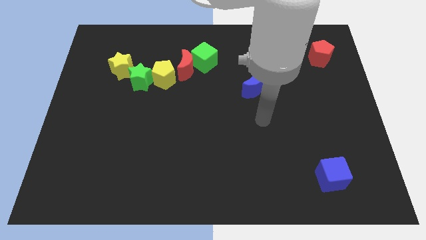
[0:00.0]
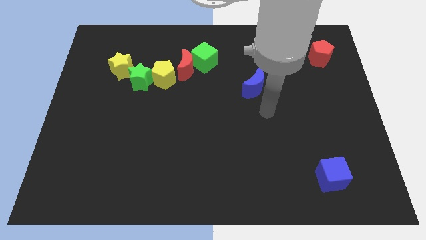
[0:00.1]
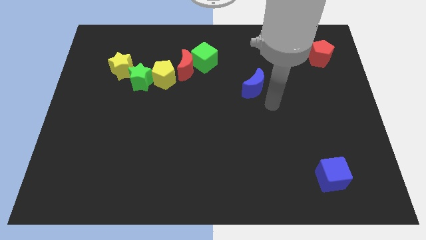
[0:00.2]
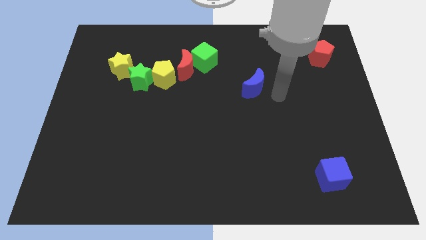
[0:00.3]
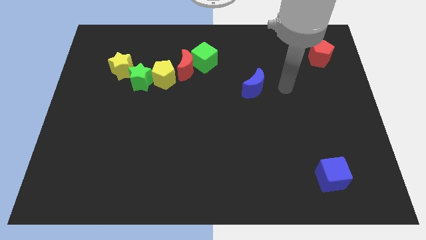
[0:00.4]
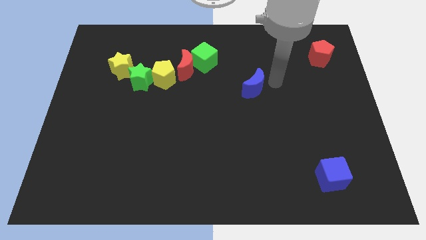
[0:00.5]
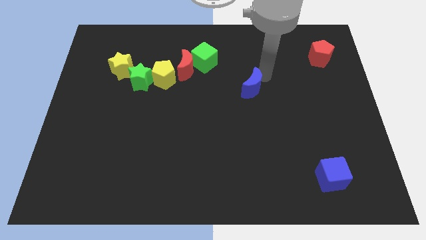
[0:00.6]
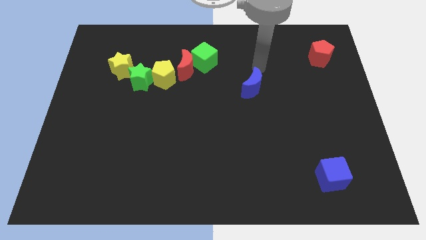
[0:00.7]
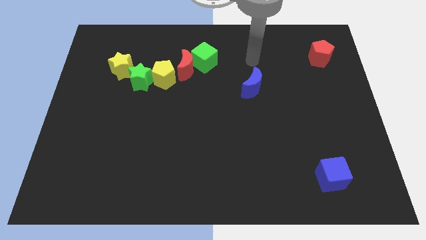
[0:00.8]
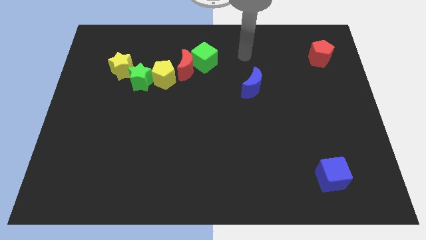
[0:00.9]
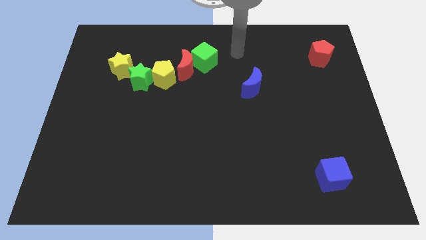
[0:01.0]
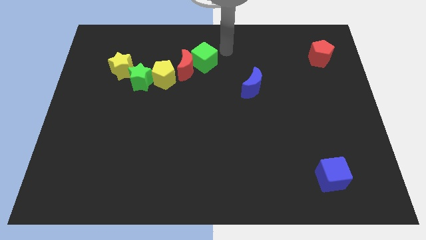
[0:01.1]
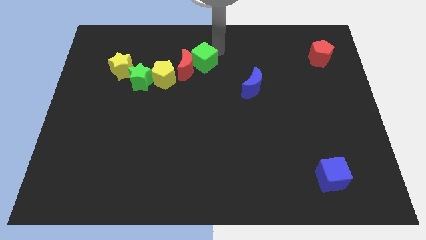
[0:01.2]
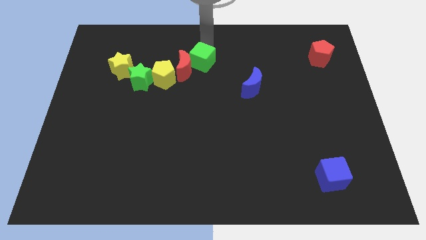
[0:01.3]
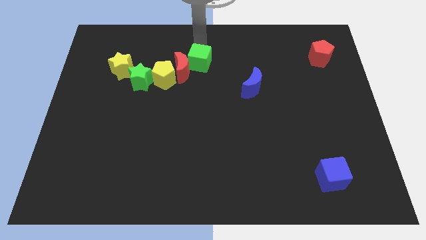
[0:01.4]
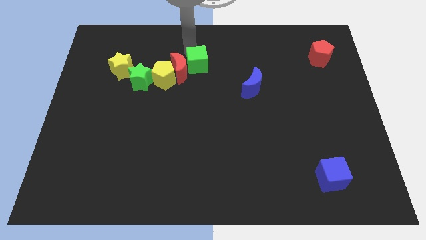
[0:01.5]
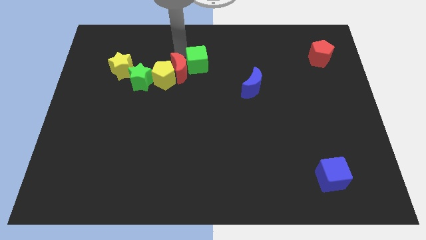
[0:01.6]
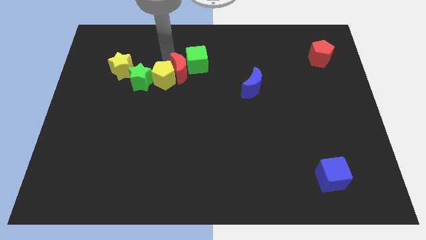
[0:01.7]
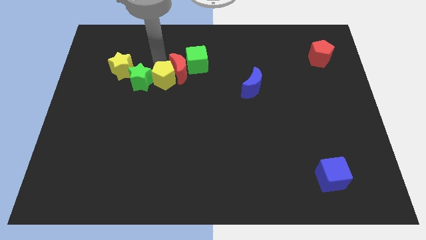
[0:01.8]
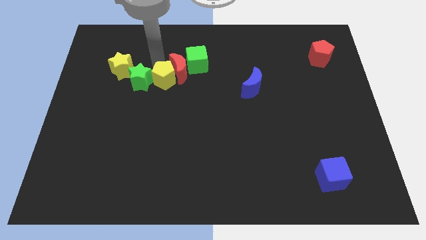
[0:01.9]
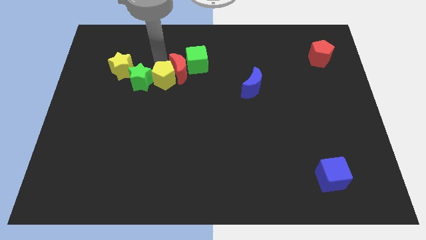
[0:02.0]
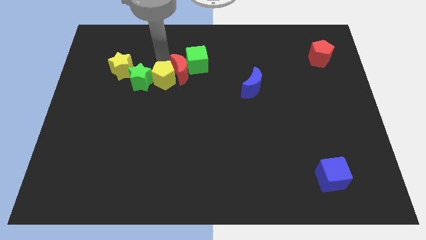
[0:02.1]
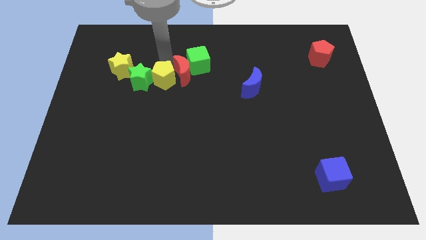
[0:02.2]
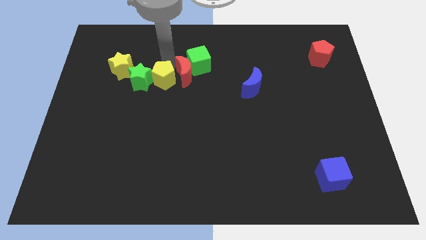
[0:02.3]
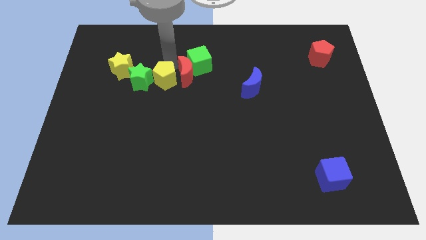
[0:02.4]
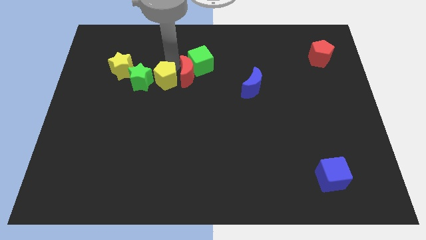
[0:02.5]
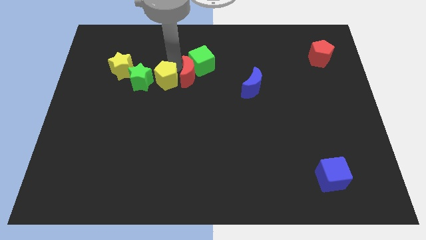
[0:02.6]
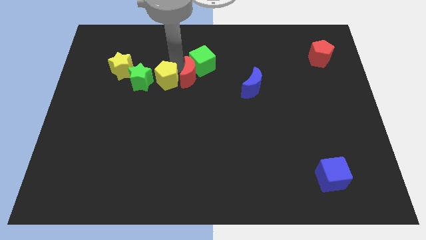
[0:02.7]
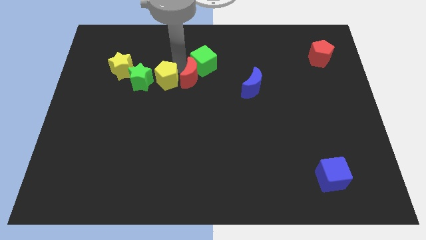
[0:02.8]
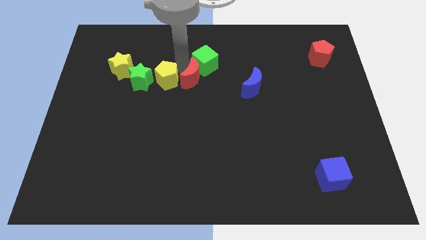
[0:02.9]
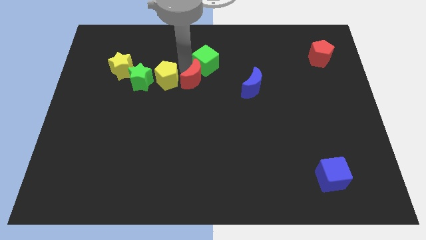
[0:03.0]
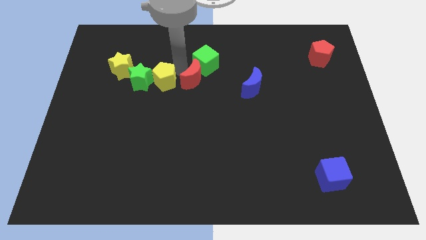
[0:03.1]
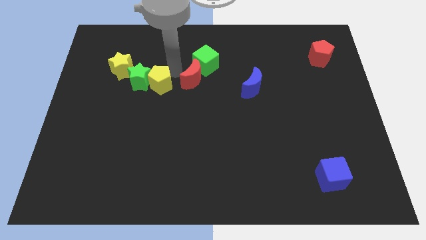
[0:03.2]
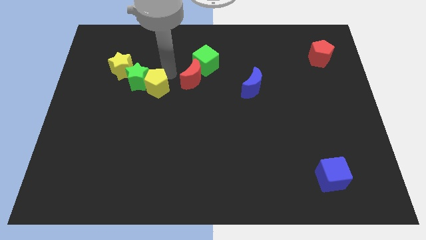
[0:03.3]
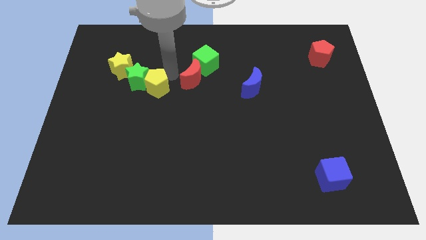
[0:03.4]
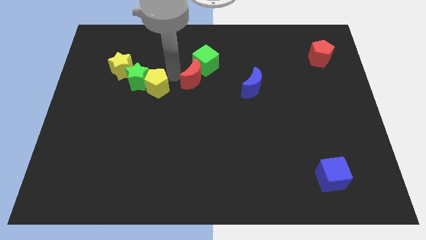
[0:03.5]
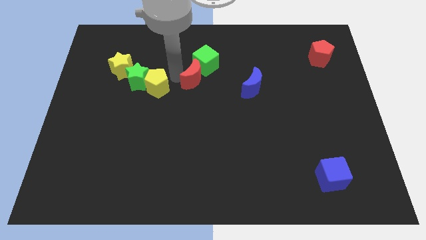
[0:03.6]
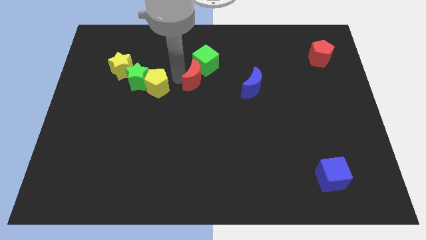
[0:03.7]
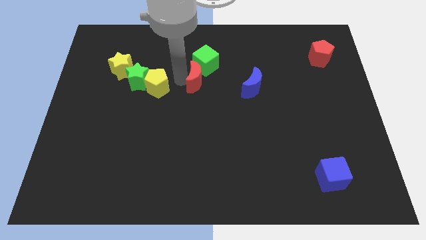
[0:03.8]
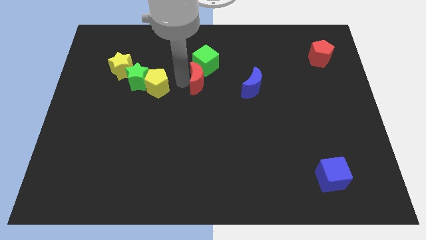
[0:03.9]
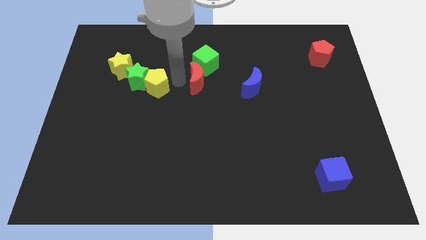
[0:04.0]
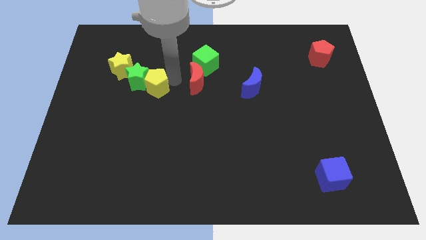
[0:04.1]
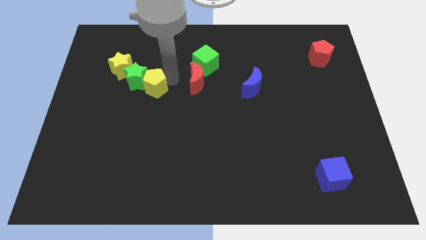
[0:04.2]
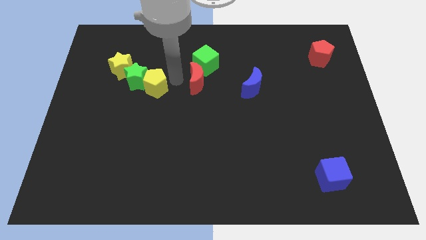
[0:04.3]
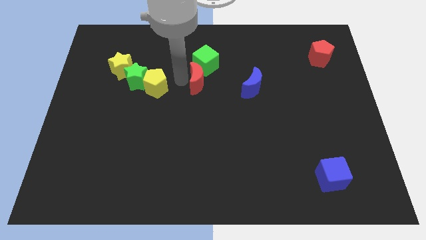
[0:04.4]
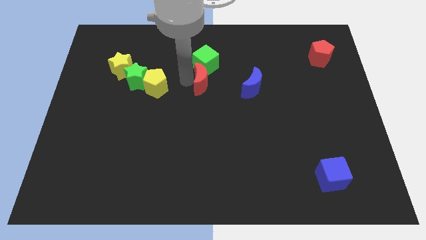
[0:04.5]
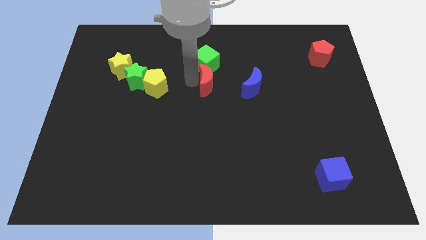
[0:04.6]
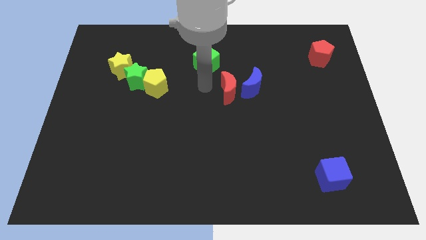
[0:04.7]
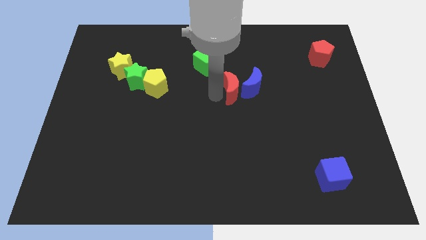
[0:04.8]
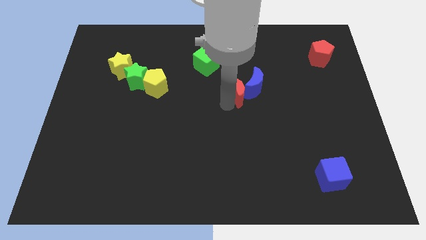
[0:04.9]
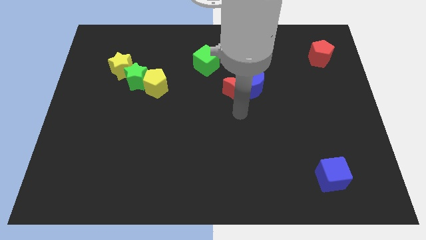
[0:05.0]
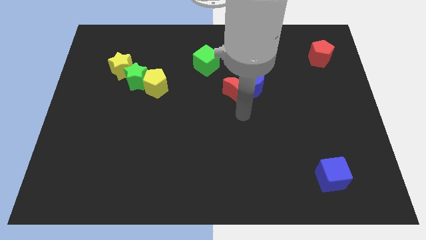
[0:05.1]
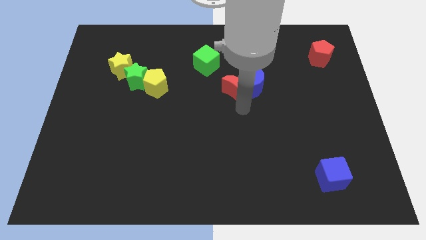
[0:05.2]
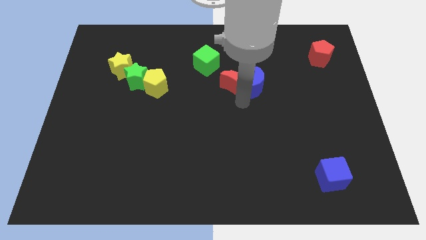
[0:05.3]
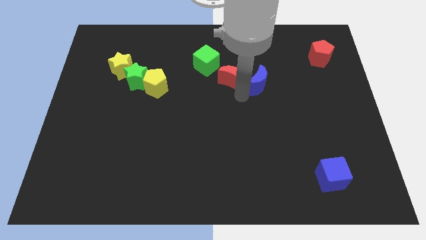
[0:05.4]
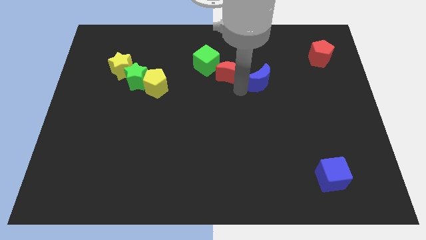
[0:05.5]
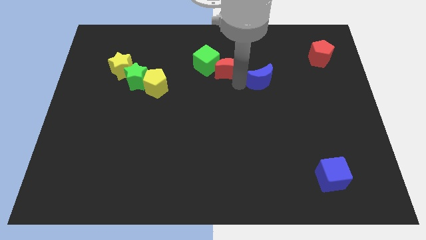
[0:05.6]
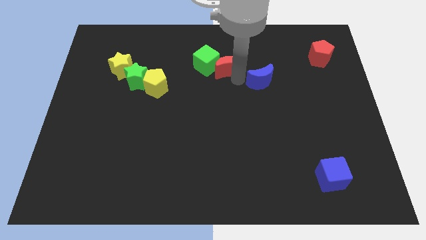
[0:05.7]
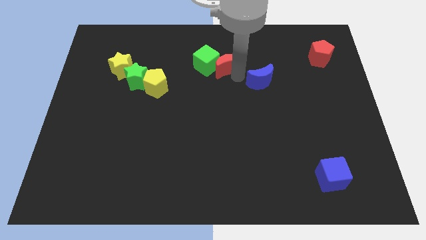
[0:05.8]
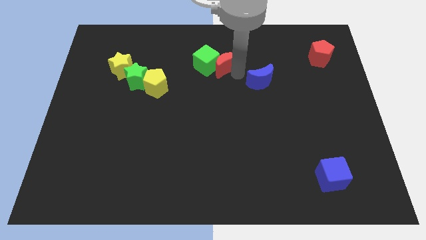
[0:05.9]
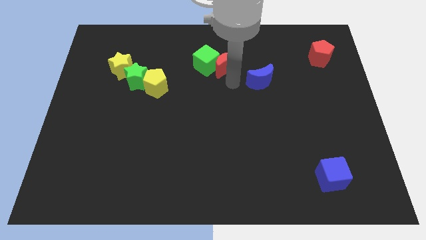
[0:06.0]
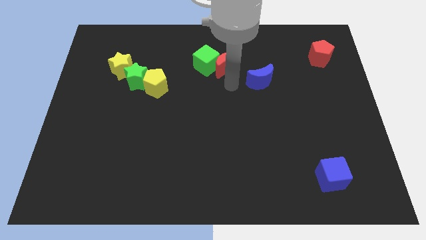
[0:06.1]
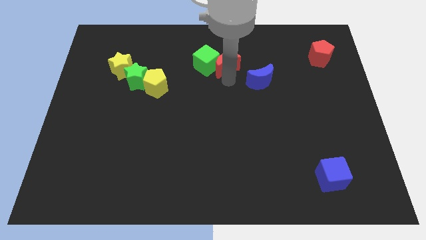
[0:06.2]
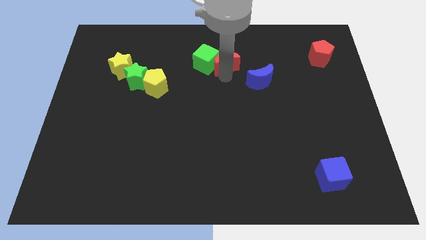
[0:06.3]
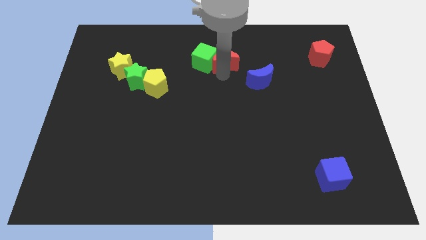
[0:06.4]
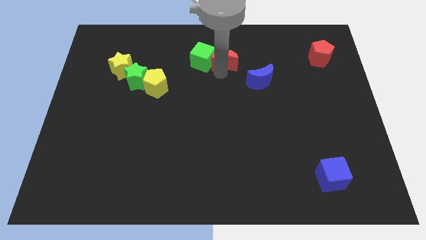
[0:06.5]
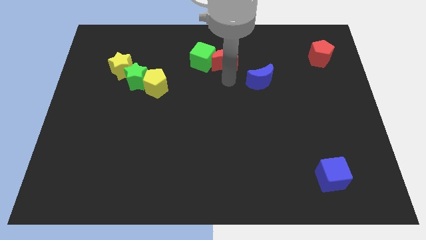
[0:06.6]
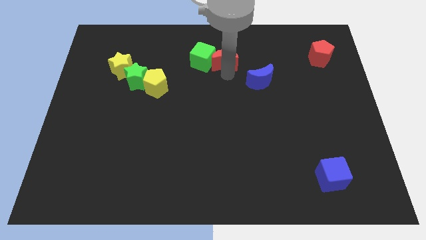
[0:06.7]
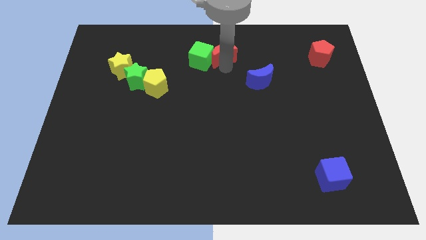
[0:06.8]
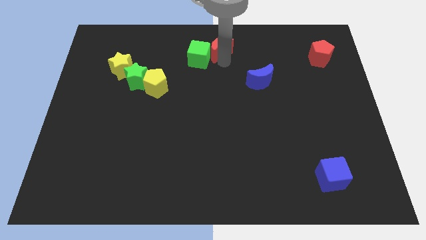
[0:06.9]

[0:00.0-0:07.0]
slide the red moon to the top side
